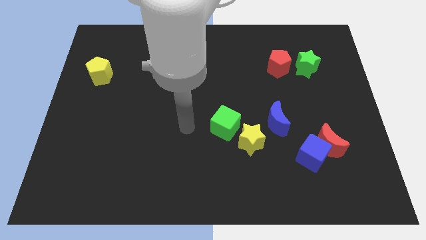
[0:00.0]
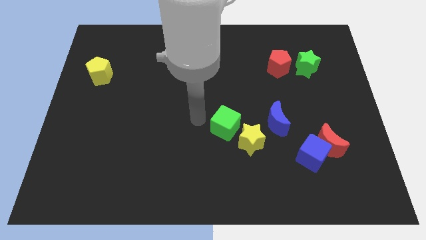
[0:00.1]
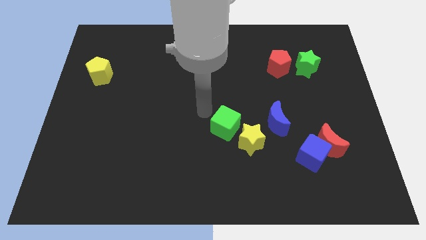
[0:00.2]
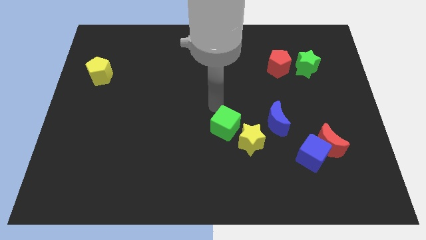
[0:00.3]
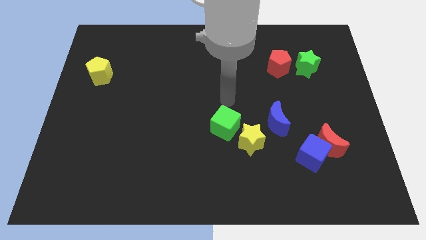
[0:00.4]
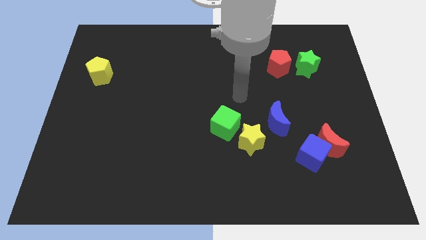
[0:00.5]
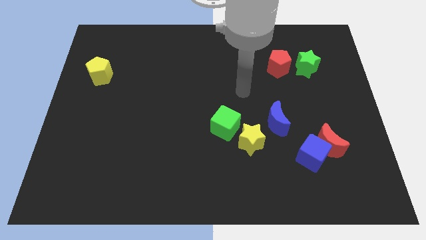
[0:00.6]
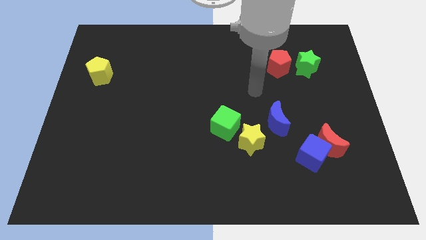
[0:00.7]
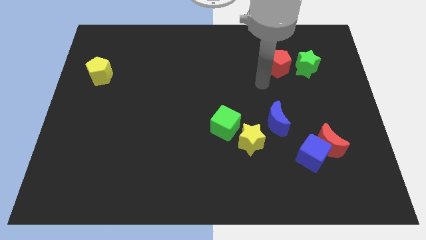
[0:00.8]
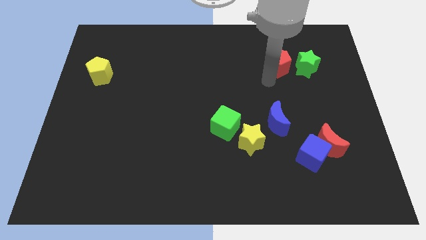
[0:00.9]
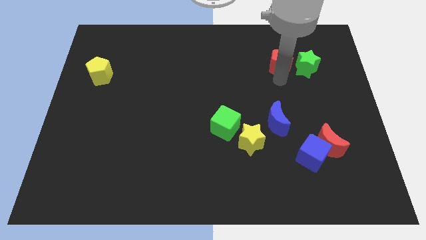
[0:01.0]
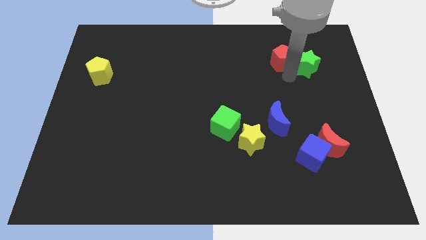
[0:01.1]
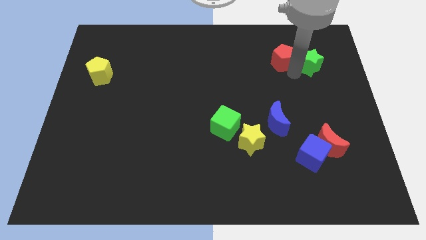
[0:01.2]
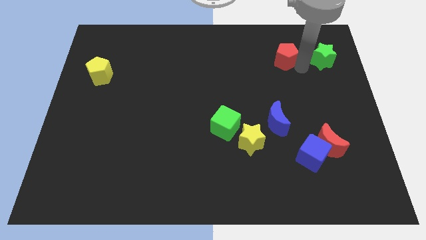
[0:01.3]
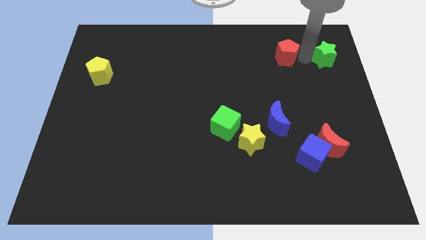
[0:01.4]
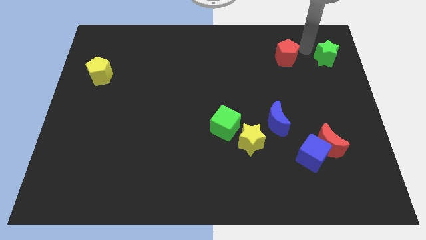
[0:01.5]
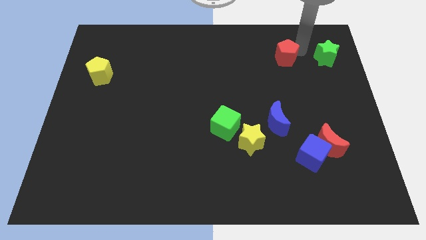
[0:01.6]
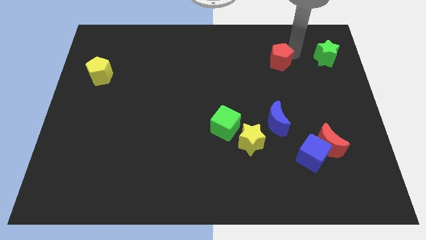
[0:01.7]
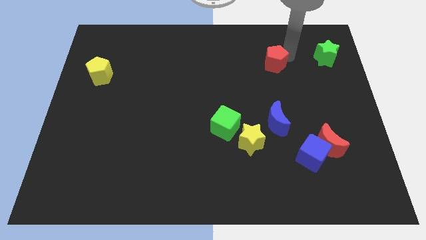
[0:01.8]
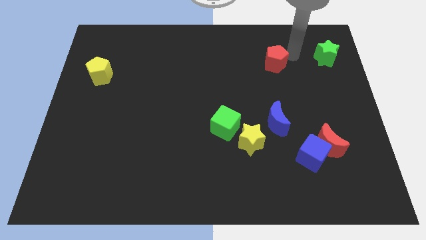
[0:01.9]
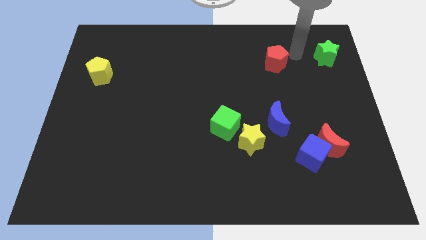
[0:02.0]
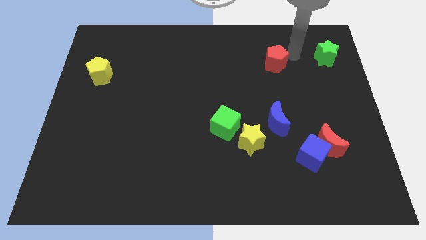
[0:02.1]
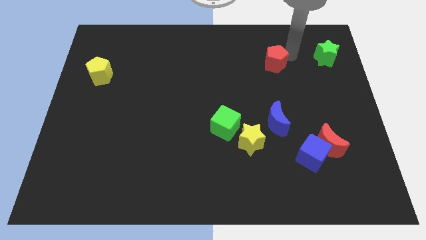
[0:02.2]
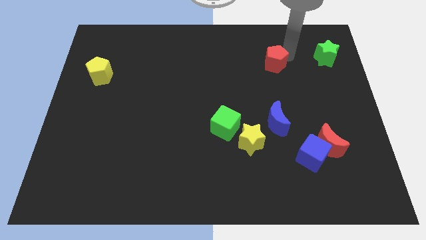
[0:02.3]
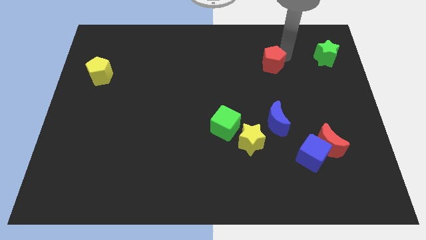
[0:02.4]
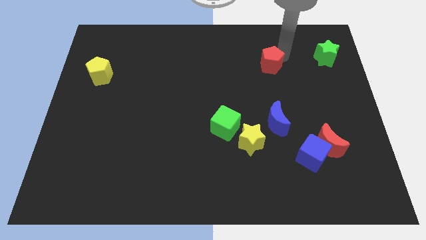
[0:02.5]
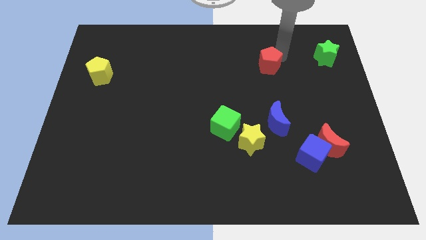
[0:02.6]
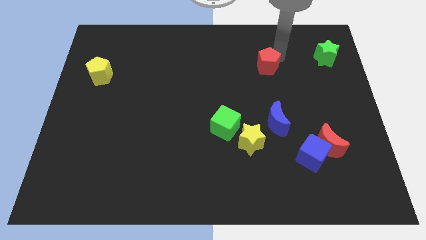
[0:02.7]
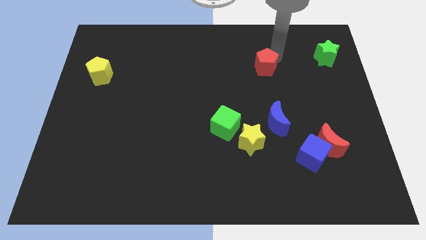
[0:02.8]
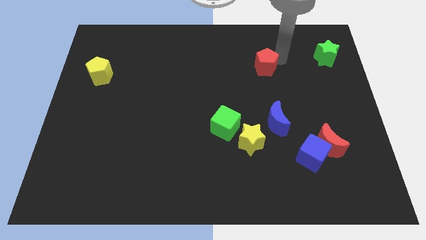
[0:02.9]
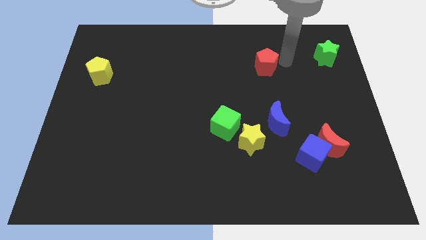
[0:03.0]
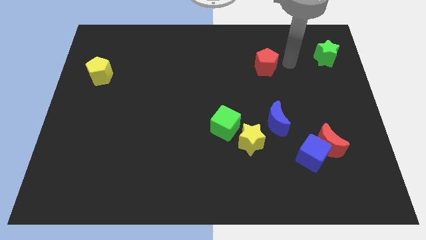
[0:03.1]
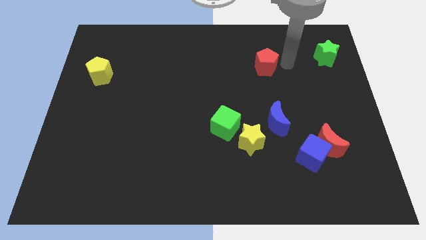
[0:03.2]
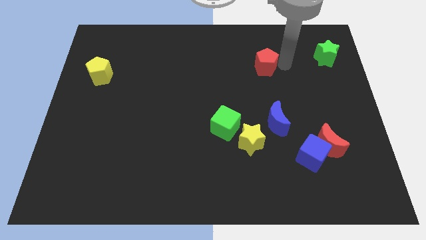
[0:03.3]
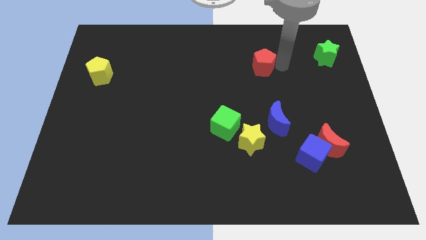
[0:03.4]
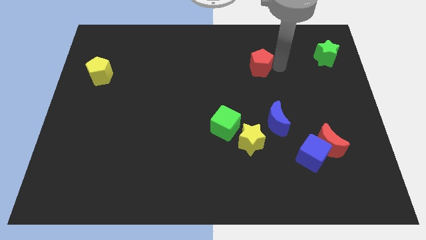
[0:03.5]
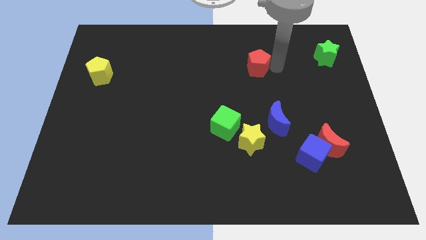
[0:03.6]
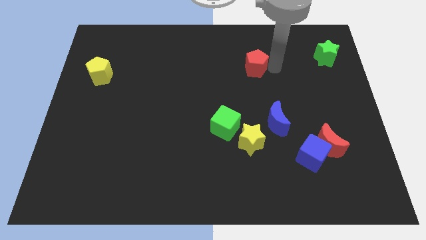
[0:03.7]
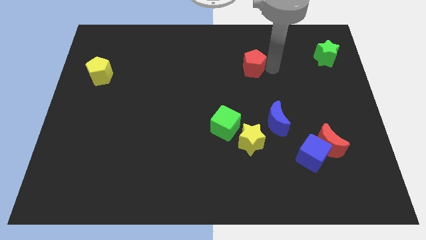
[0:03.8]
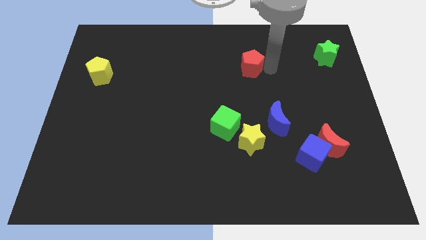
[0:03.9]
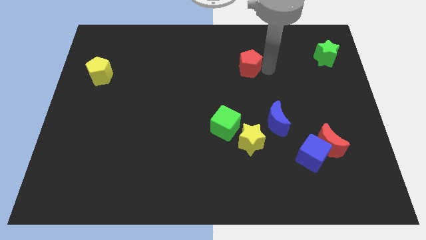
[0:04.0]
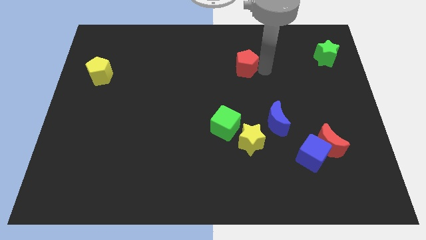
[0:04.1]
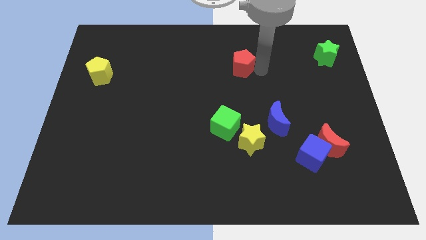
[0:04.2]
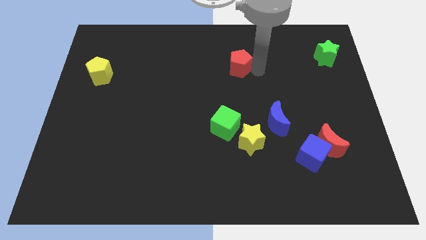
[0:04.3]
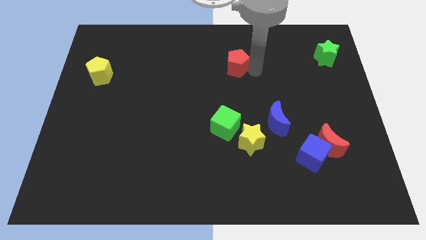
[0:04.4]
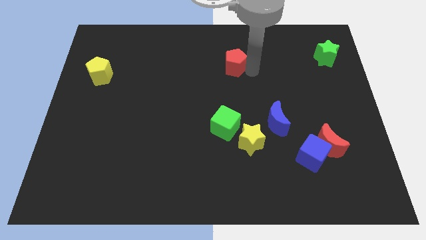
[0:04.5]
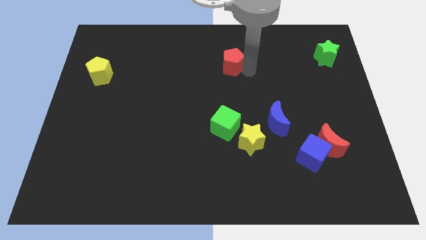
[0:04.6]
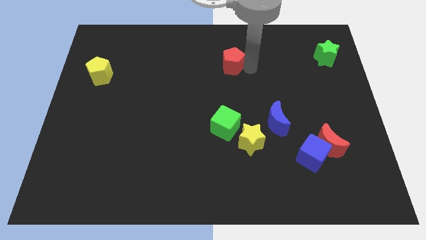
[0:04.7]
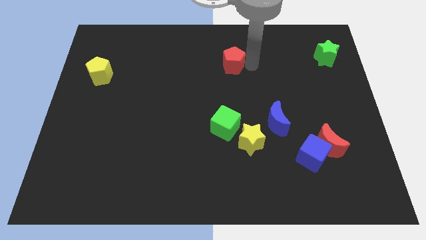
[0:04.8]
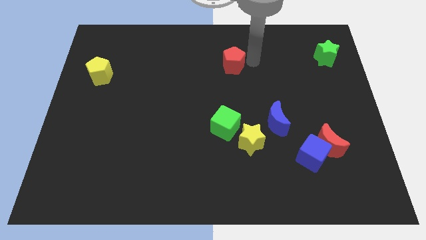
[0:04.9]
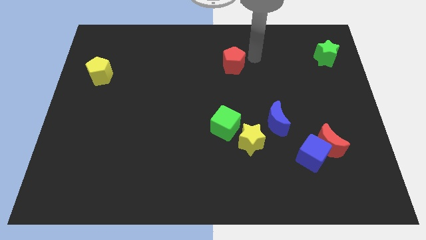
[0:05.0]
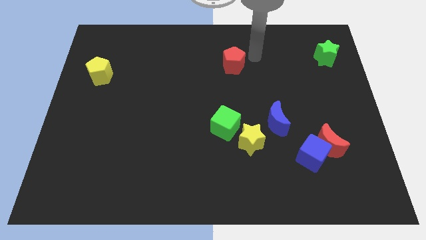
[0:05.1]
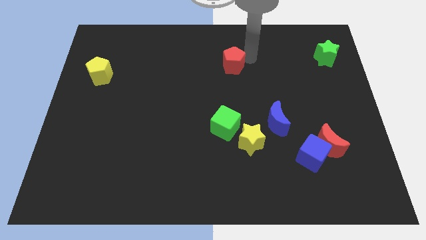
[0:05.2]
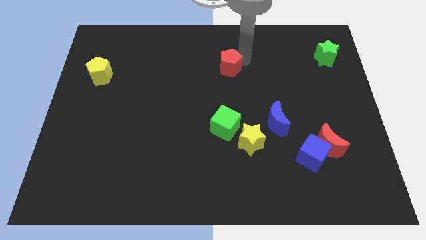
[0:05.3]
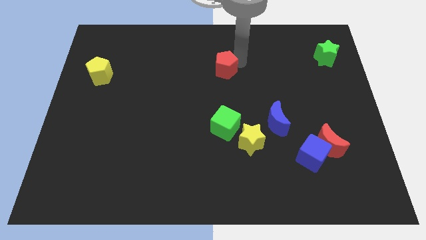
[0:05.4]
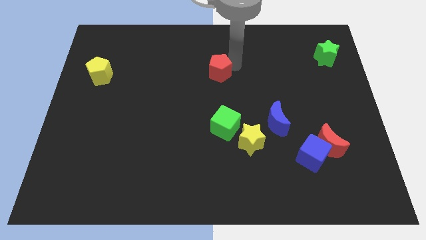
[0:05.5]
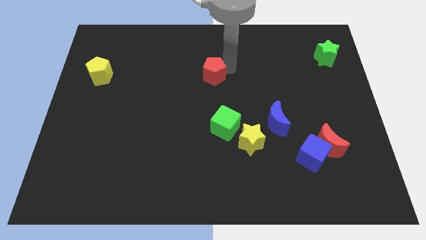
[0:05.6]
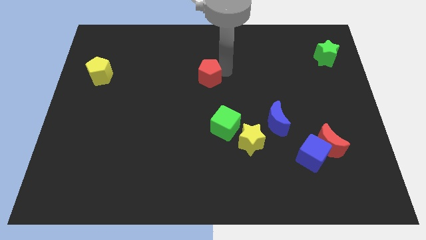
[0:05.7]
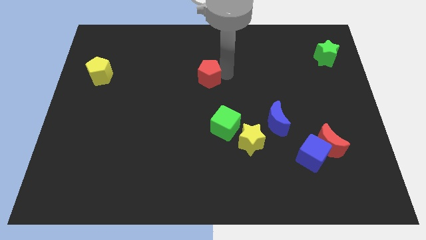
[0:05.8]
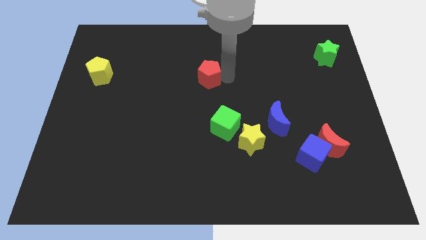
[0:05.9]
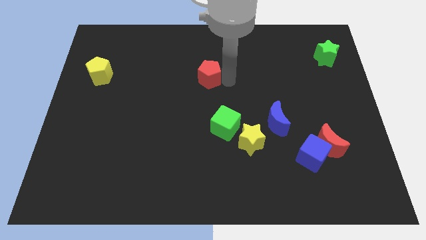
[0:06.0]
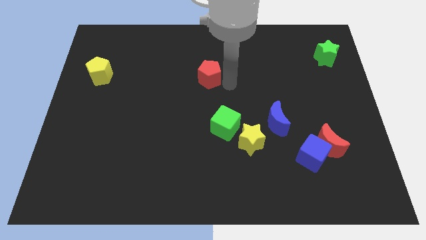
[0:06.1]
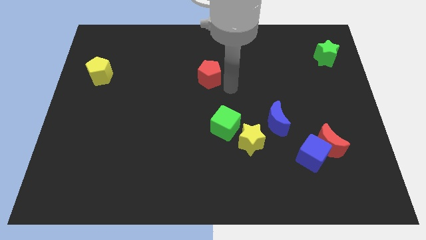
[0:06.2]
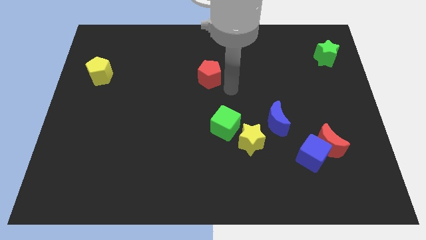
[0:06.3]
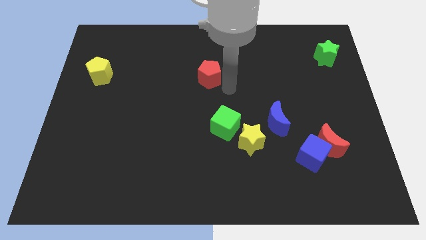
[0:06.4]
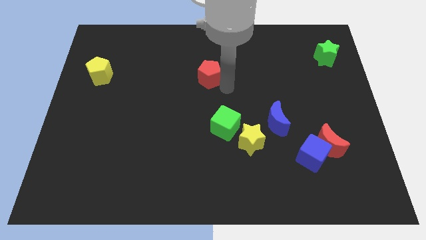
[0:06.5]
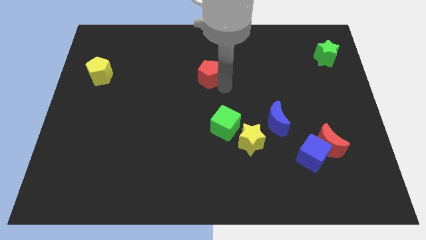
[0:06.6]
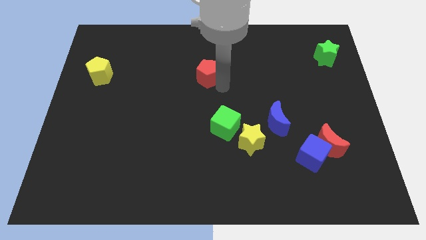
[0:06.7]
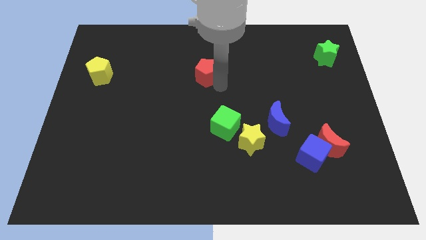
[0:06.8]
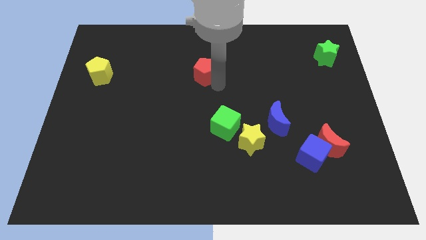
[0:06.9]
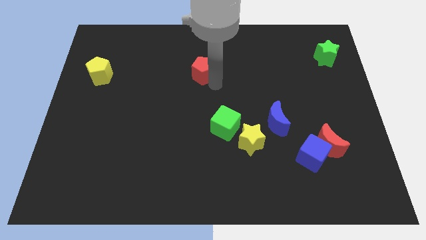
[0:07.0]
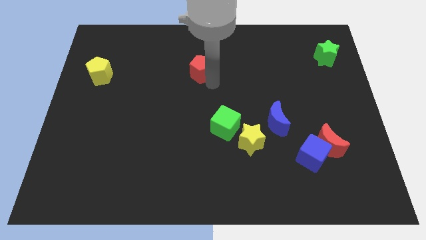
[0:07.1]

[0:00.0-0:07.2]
push the red pentagon left

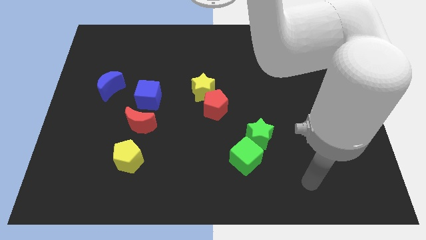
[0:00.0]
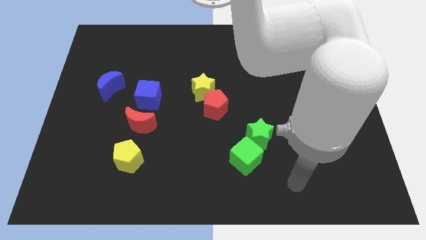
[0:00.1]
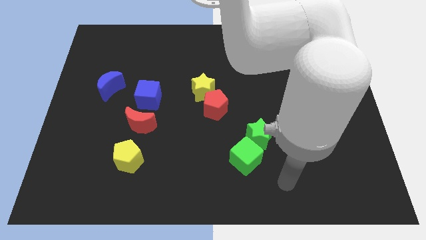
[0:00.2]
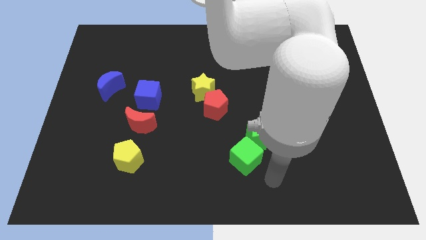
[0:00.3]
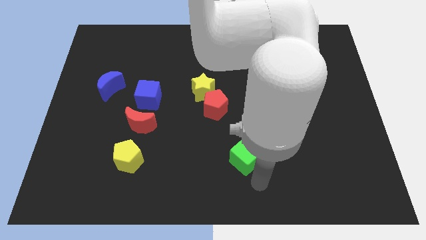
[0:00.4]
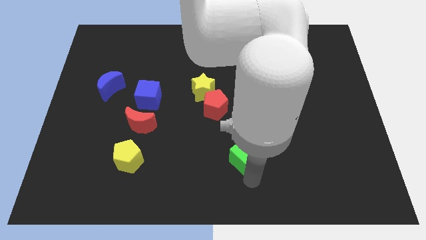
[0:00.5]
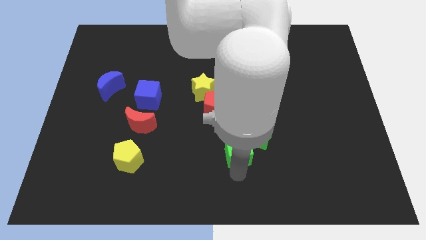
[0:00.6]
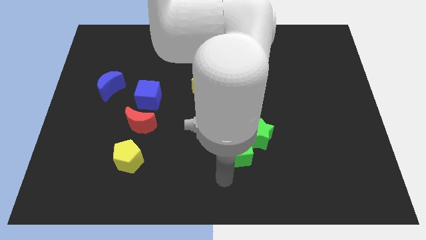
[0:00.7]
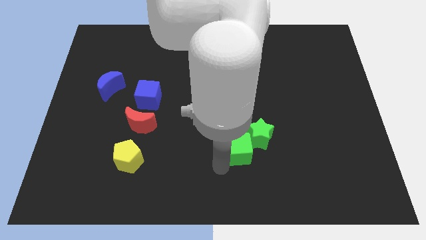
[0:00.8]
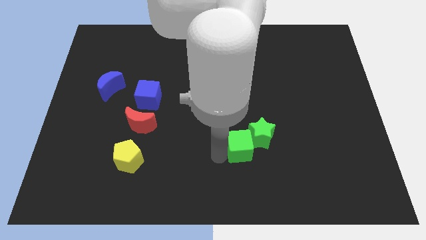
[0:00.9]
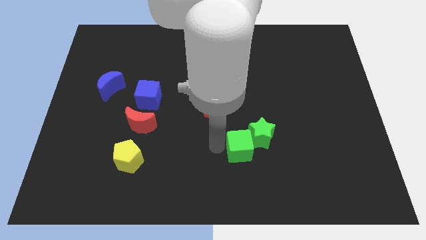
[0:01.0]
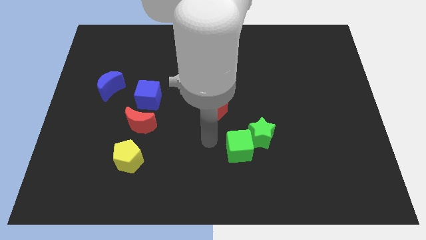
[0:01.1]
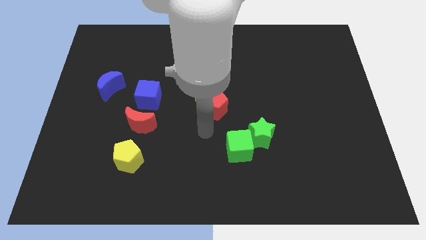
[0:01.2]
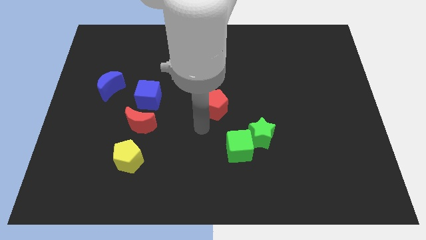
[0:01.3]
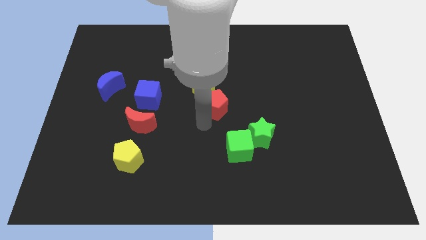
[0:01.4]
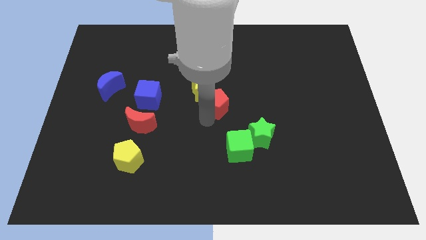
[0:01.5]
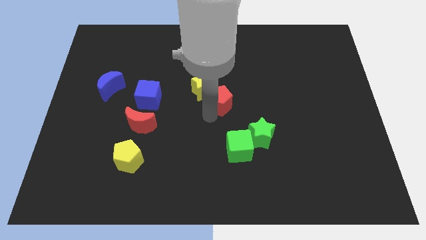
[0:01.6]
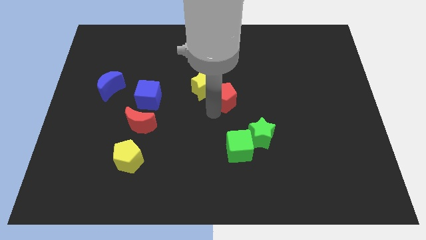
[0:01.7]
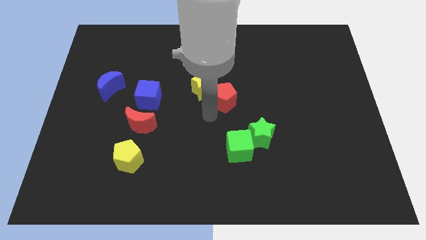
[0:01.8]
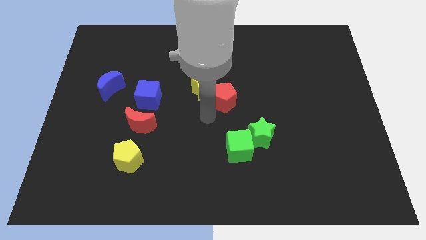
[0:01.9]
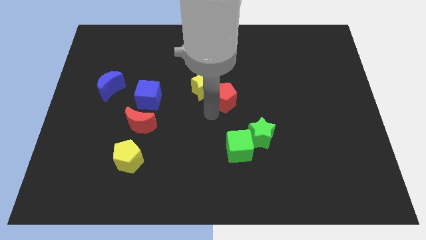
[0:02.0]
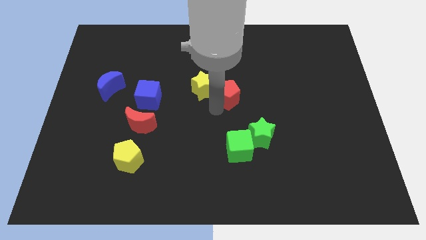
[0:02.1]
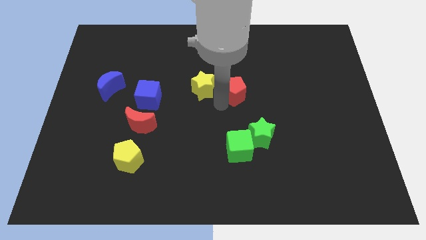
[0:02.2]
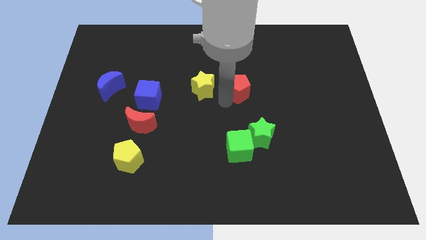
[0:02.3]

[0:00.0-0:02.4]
push the red pentagon slightly upwards and then to the right
